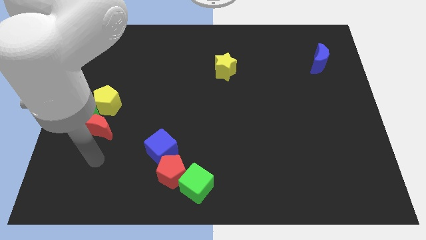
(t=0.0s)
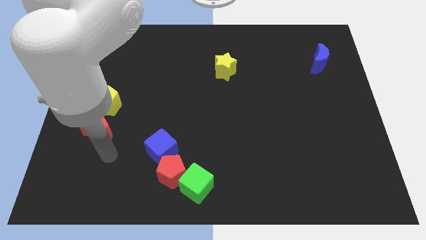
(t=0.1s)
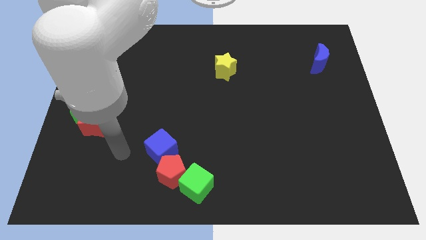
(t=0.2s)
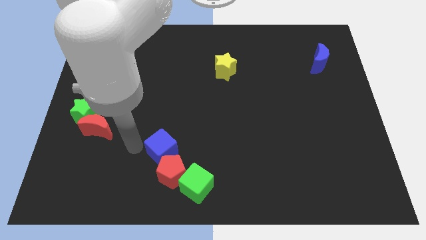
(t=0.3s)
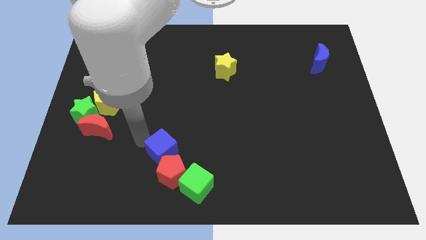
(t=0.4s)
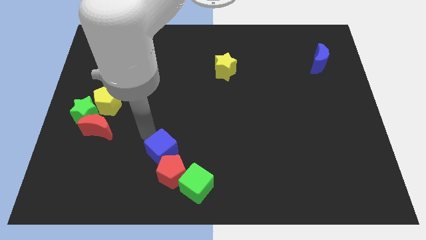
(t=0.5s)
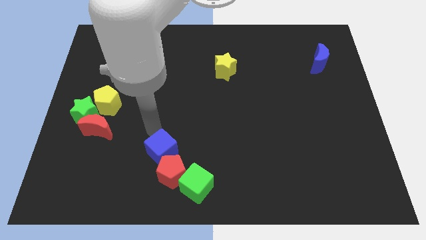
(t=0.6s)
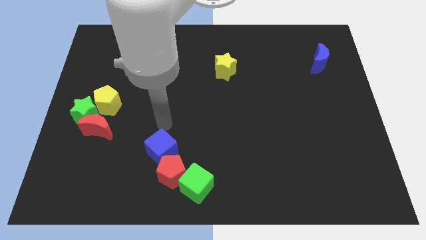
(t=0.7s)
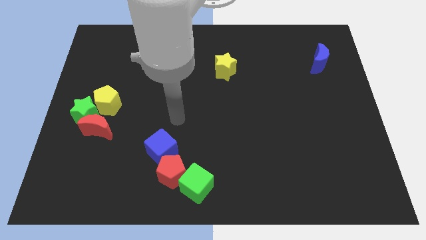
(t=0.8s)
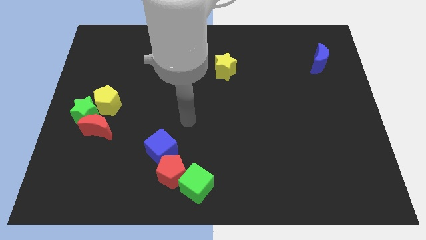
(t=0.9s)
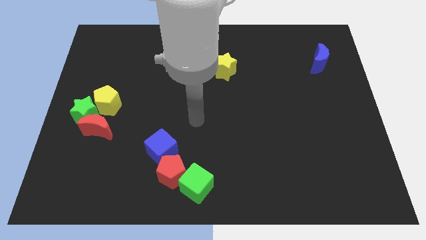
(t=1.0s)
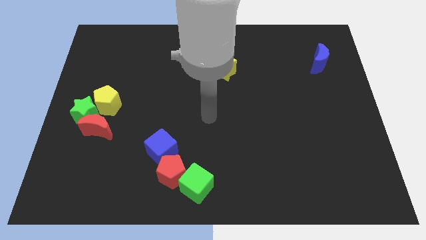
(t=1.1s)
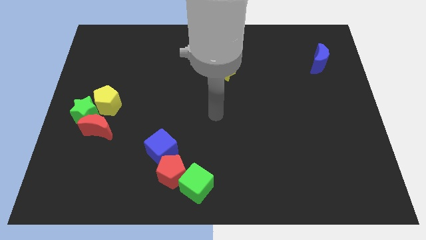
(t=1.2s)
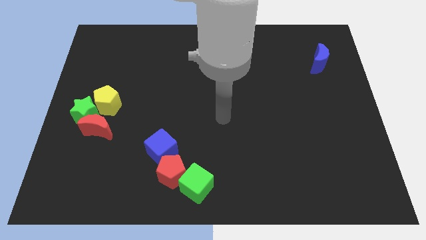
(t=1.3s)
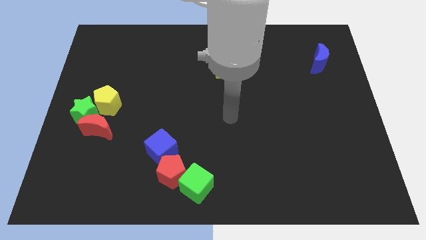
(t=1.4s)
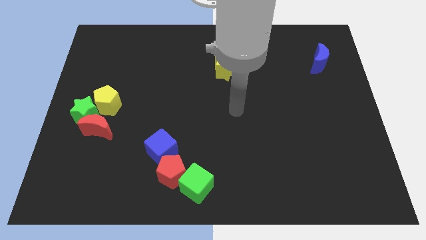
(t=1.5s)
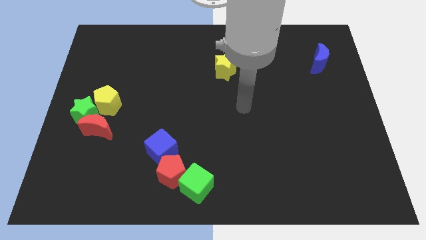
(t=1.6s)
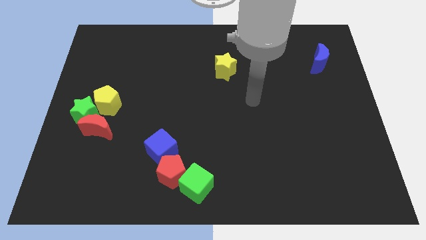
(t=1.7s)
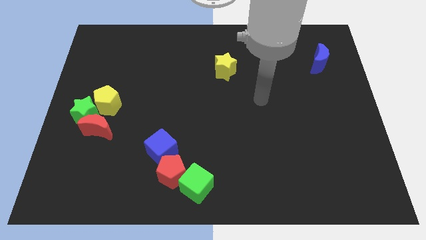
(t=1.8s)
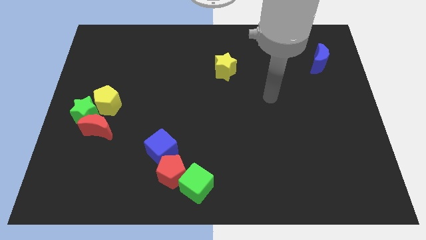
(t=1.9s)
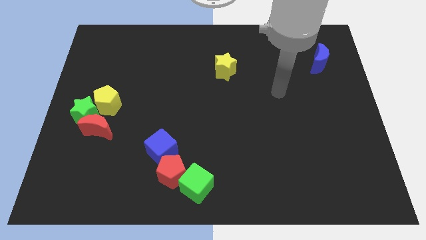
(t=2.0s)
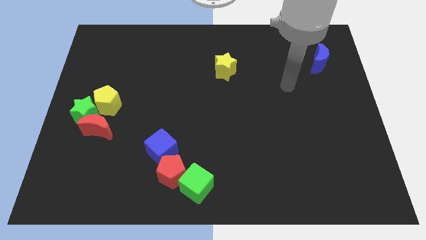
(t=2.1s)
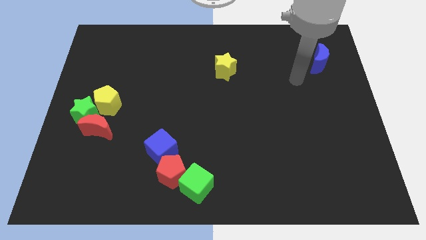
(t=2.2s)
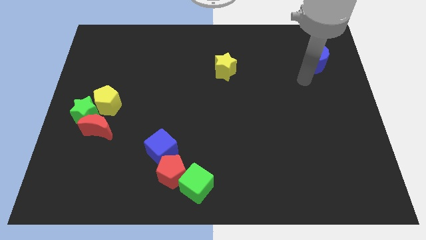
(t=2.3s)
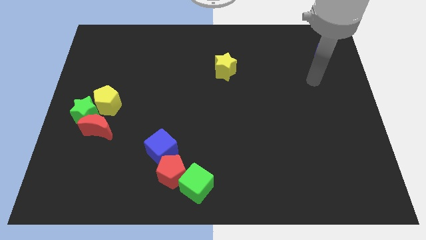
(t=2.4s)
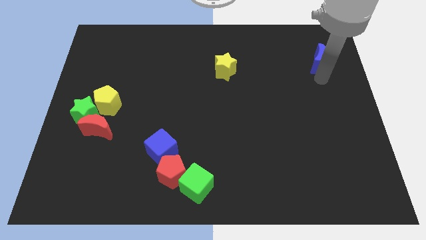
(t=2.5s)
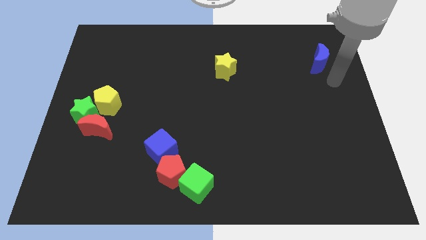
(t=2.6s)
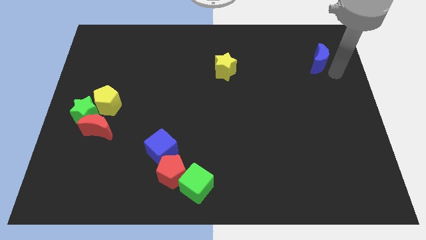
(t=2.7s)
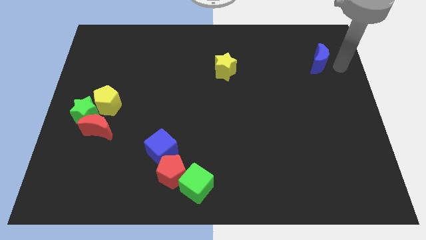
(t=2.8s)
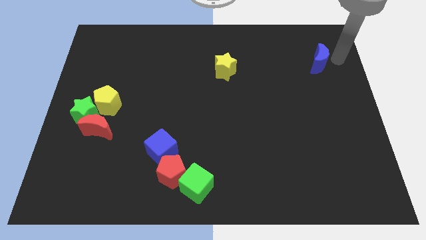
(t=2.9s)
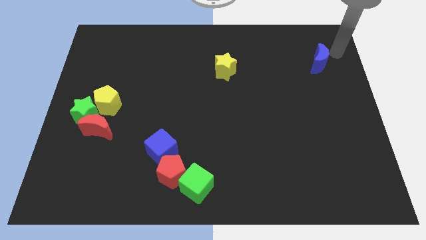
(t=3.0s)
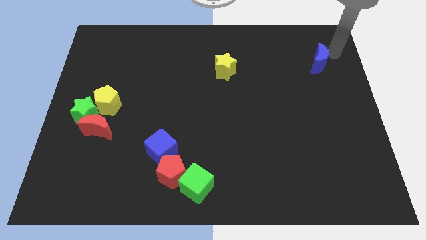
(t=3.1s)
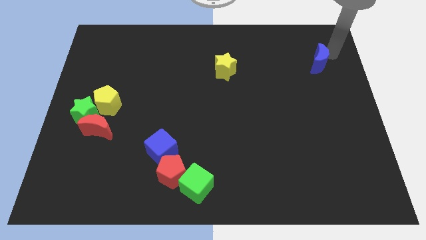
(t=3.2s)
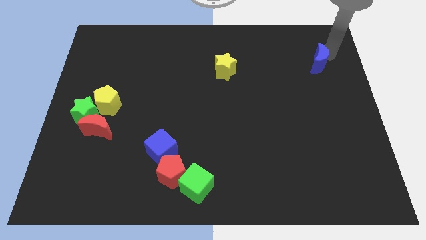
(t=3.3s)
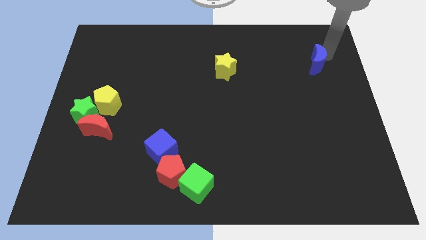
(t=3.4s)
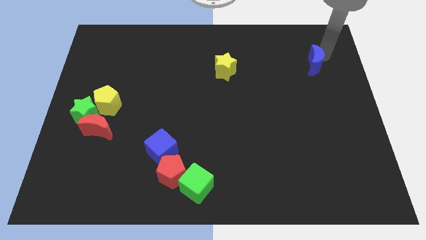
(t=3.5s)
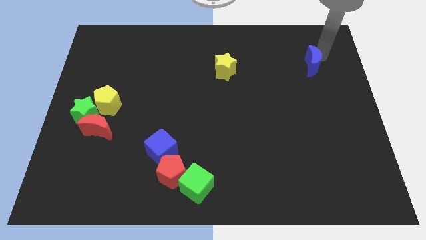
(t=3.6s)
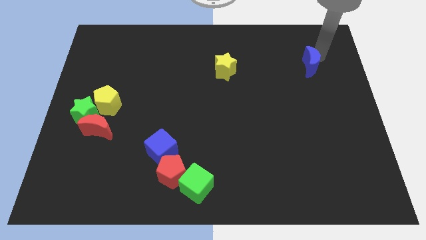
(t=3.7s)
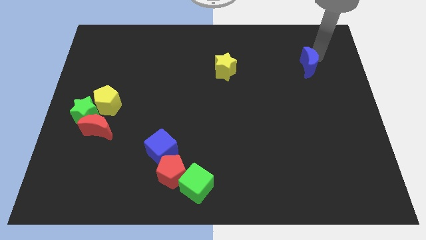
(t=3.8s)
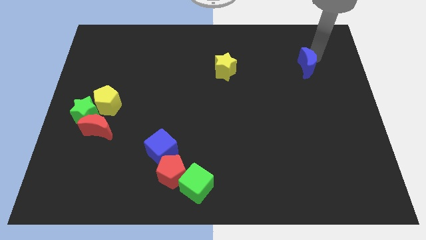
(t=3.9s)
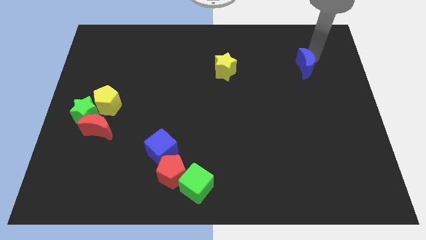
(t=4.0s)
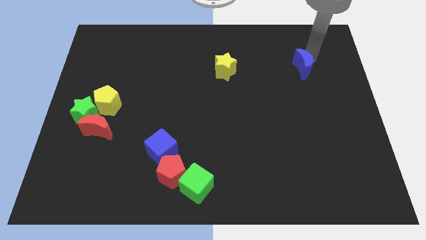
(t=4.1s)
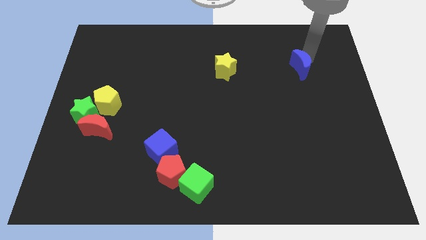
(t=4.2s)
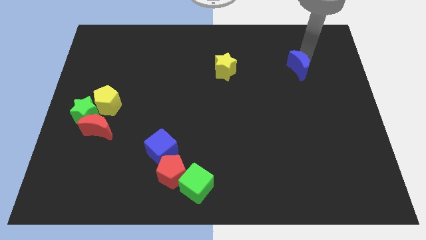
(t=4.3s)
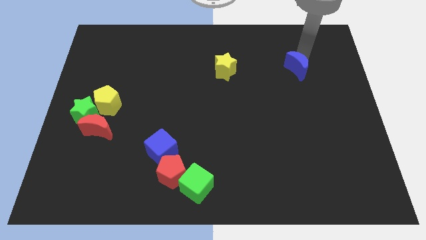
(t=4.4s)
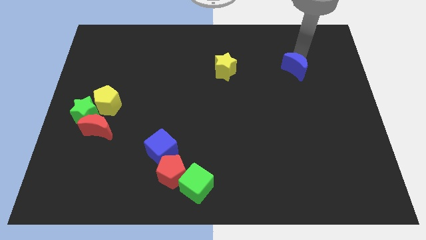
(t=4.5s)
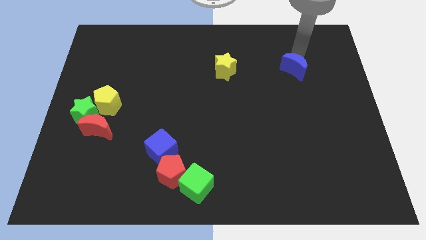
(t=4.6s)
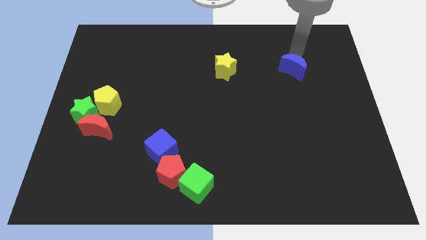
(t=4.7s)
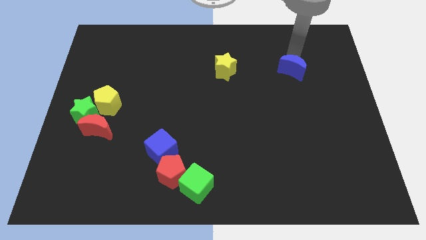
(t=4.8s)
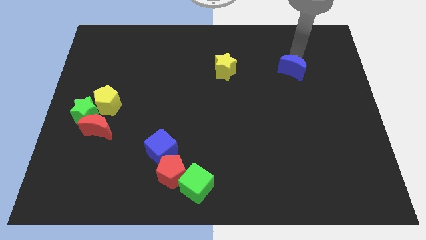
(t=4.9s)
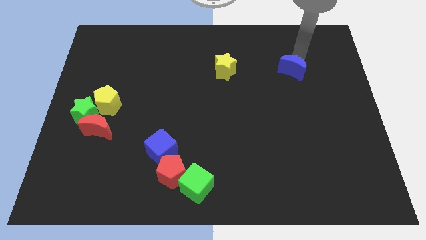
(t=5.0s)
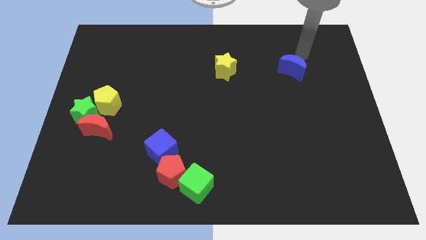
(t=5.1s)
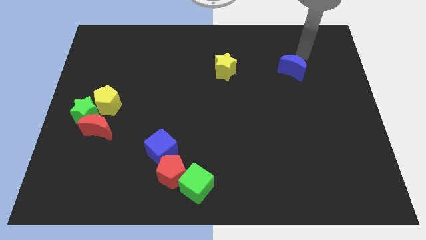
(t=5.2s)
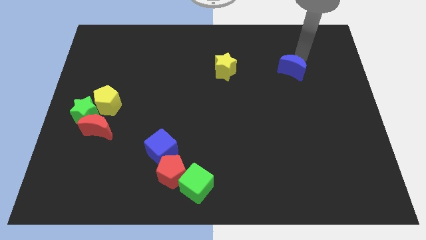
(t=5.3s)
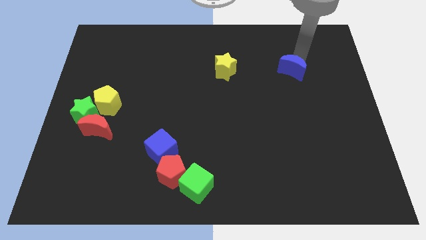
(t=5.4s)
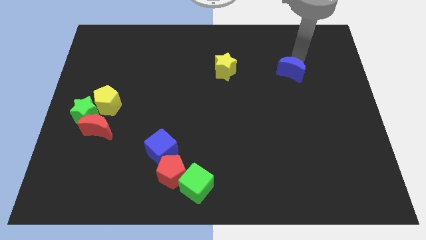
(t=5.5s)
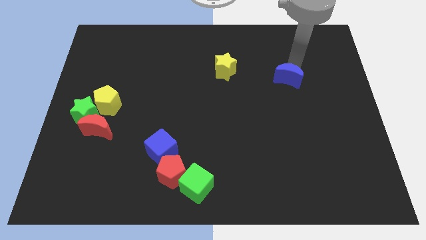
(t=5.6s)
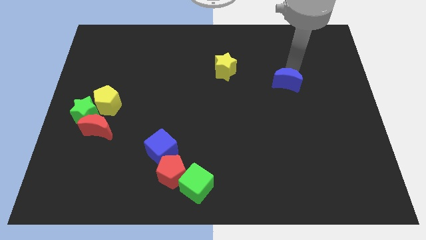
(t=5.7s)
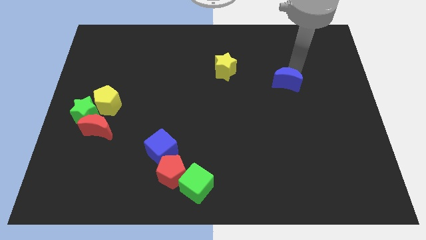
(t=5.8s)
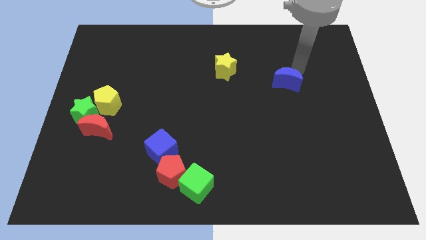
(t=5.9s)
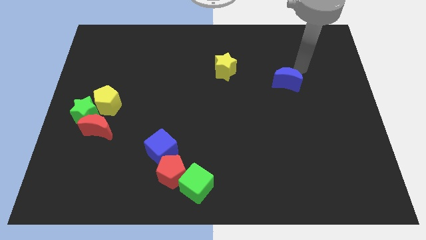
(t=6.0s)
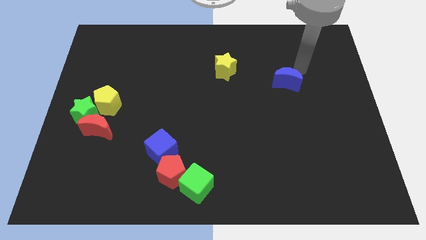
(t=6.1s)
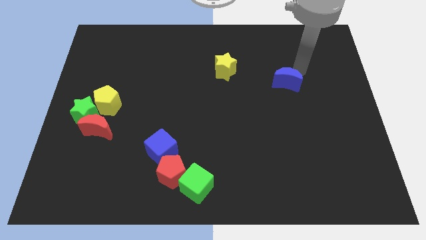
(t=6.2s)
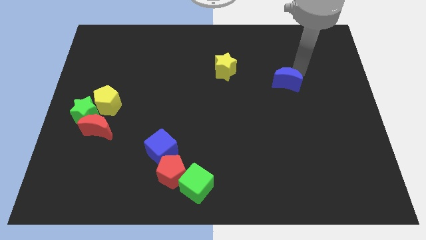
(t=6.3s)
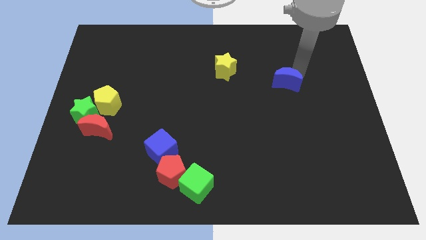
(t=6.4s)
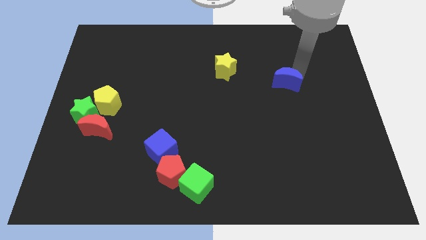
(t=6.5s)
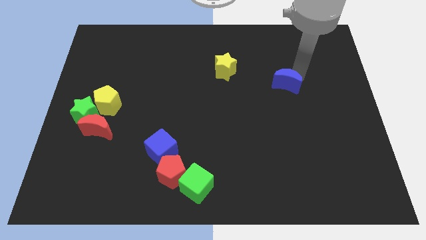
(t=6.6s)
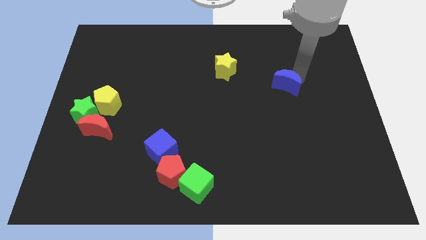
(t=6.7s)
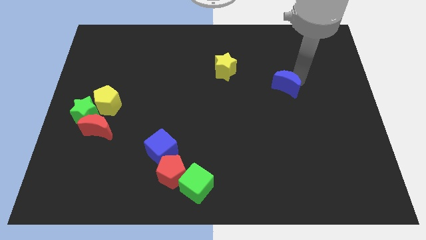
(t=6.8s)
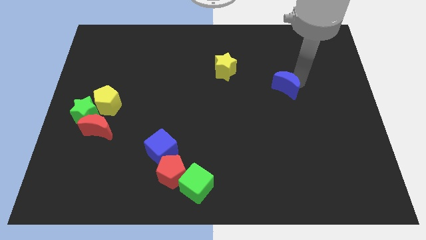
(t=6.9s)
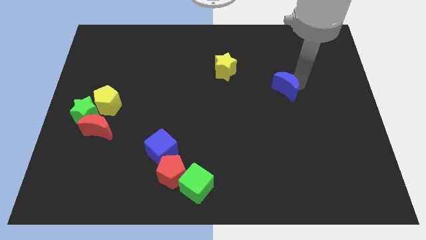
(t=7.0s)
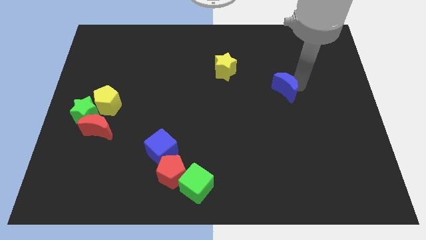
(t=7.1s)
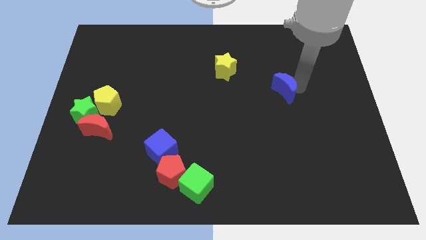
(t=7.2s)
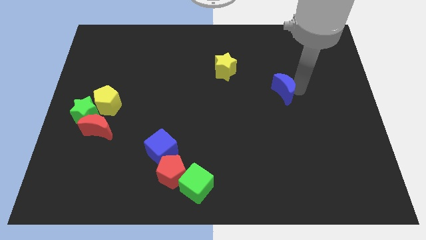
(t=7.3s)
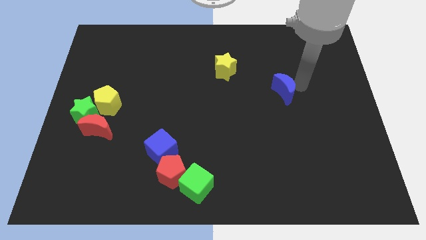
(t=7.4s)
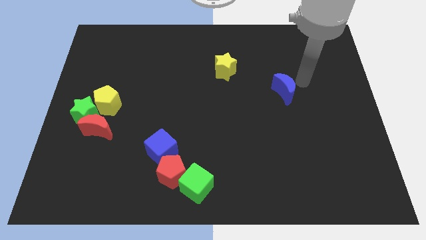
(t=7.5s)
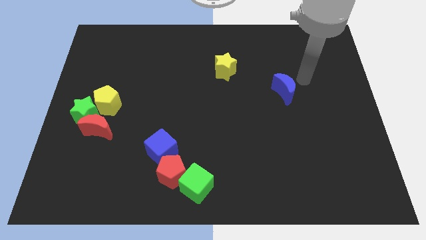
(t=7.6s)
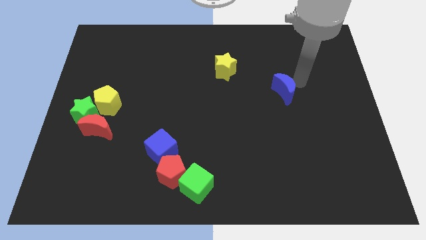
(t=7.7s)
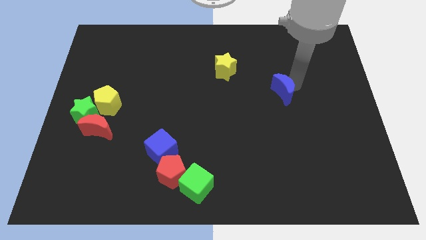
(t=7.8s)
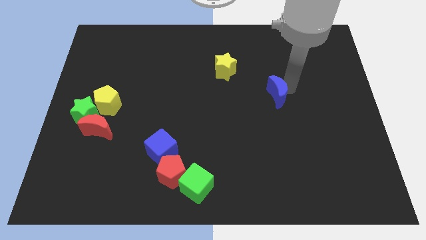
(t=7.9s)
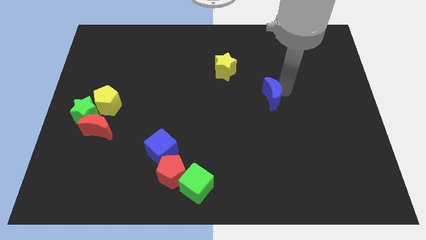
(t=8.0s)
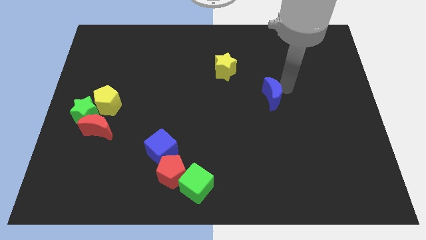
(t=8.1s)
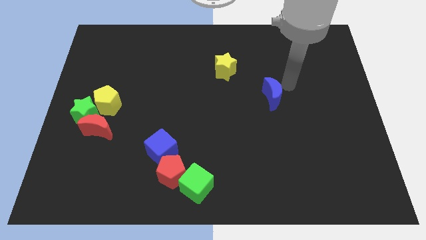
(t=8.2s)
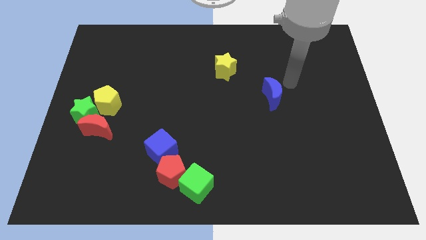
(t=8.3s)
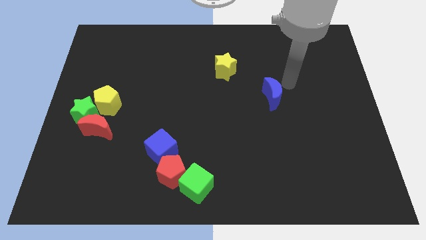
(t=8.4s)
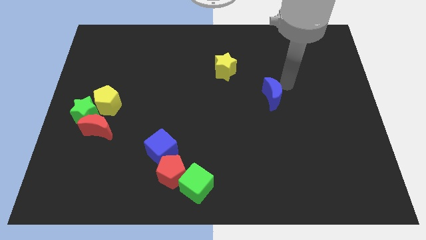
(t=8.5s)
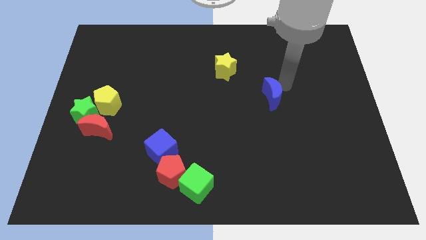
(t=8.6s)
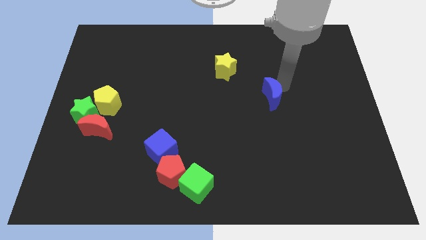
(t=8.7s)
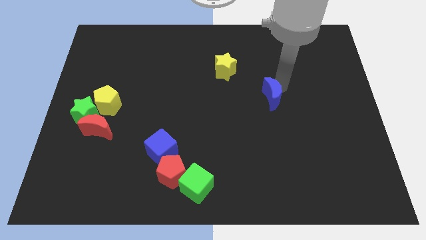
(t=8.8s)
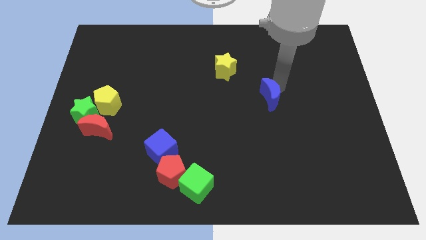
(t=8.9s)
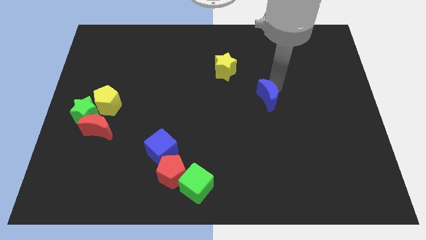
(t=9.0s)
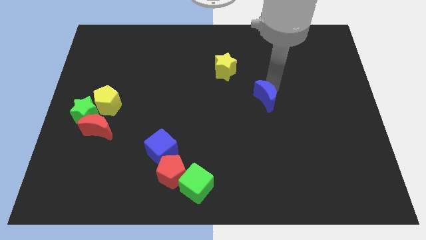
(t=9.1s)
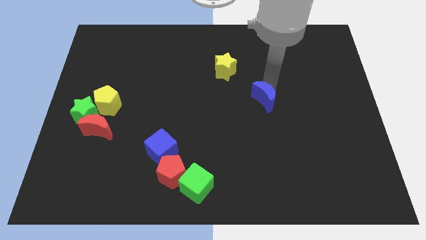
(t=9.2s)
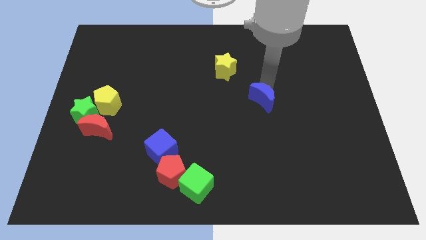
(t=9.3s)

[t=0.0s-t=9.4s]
push the blue moon downwards and left diagonally
